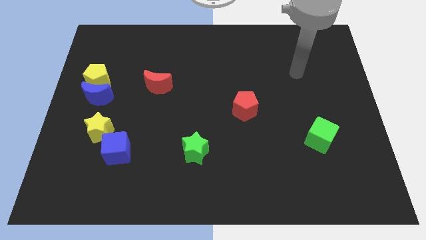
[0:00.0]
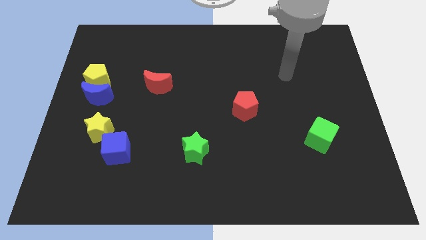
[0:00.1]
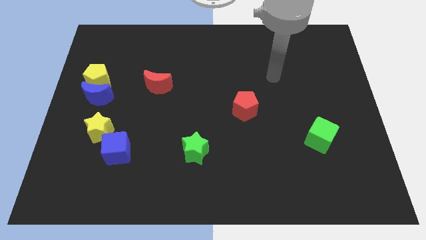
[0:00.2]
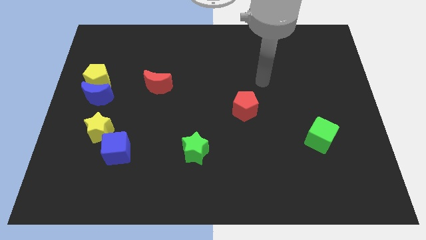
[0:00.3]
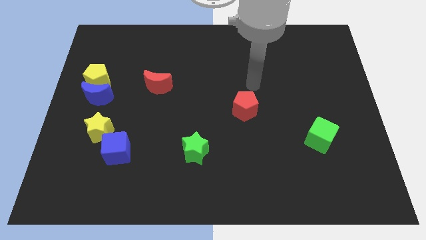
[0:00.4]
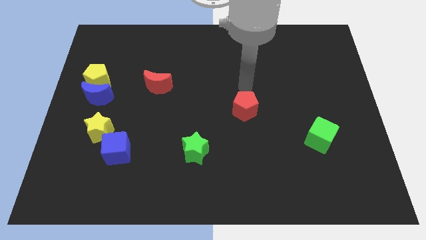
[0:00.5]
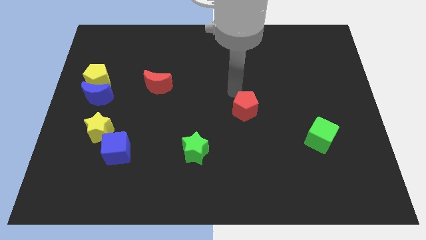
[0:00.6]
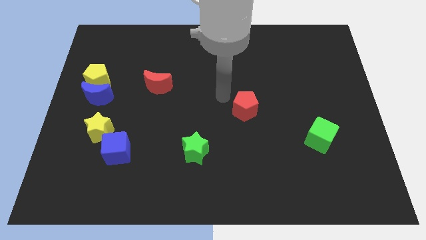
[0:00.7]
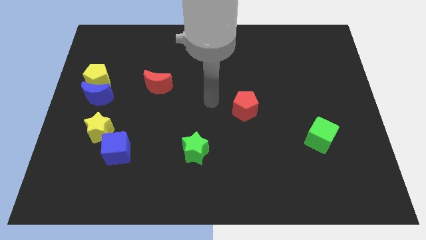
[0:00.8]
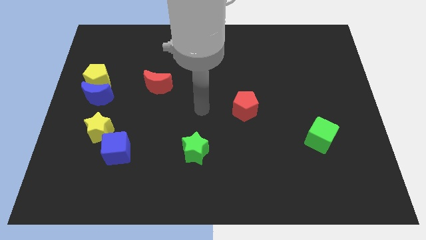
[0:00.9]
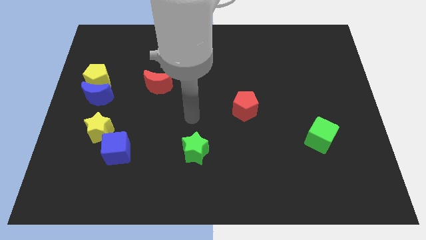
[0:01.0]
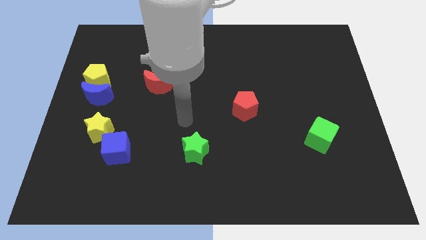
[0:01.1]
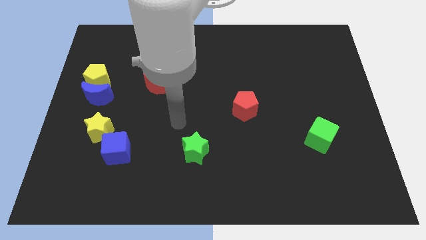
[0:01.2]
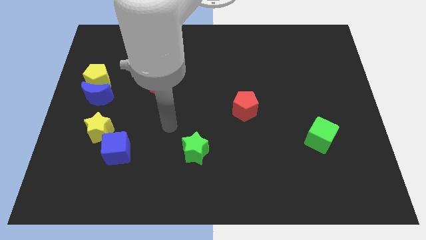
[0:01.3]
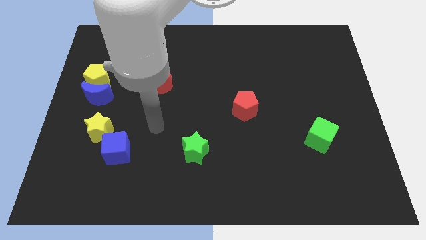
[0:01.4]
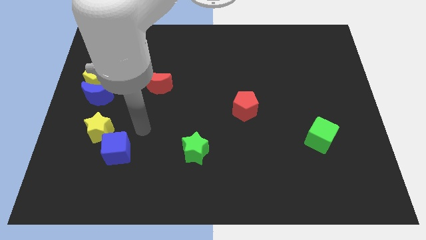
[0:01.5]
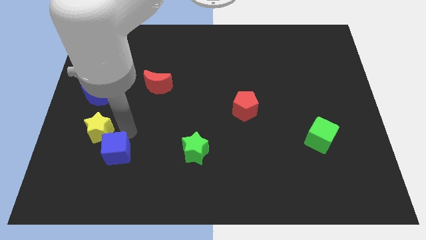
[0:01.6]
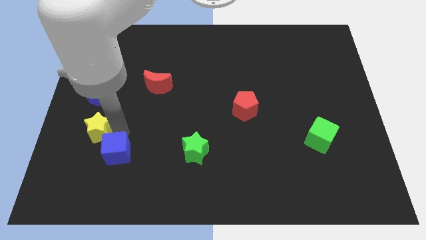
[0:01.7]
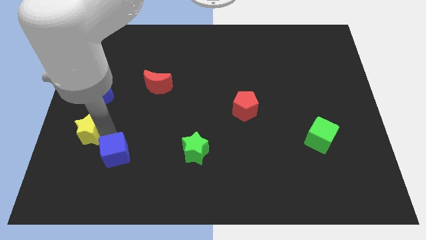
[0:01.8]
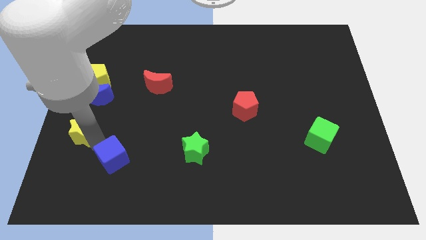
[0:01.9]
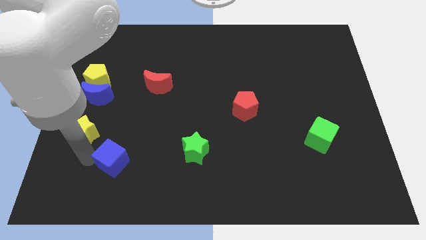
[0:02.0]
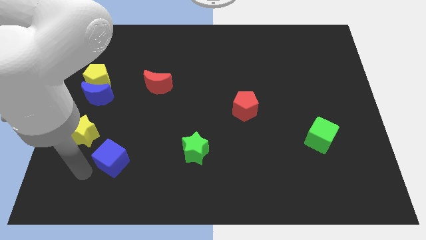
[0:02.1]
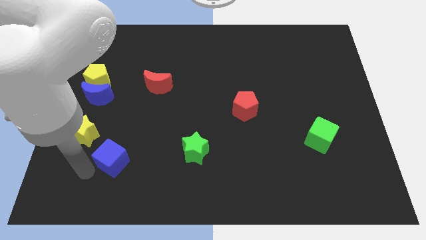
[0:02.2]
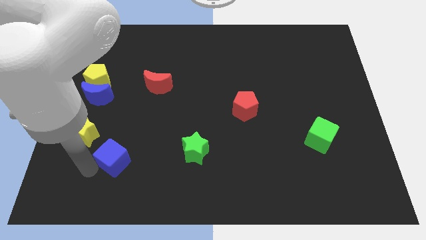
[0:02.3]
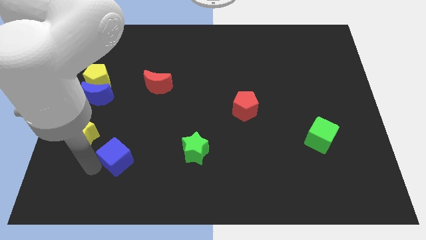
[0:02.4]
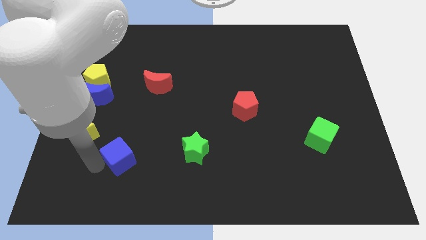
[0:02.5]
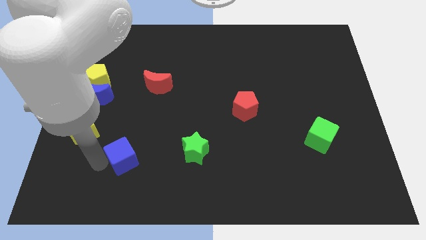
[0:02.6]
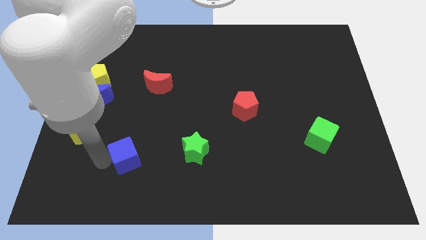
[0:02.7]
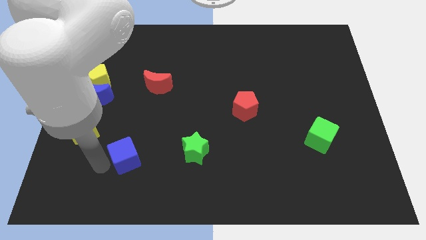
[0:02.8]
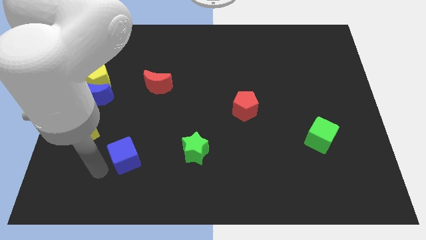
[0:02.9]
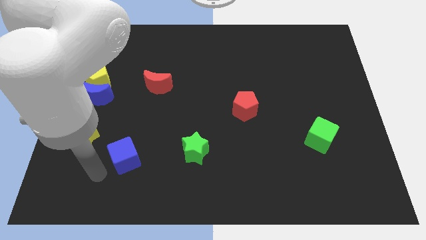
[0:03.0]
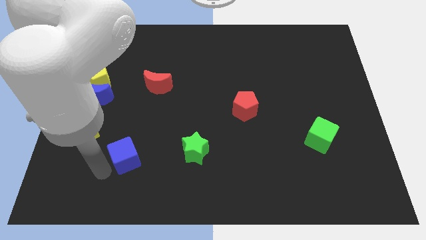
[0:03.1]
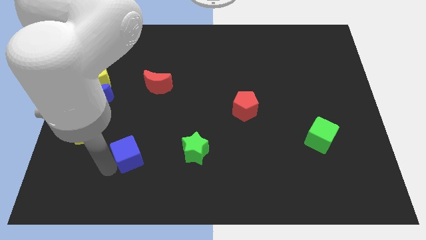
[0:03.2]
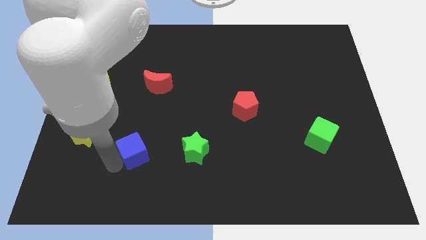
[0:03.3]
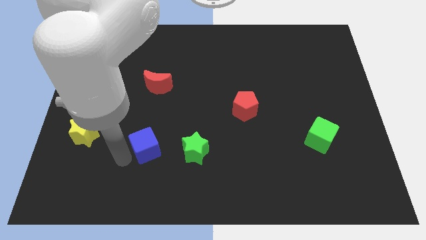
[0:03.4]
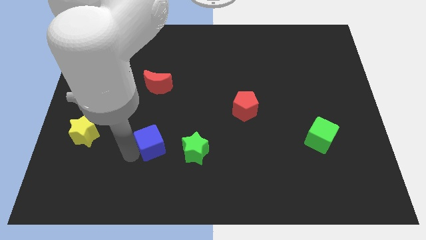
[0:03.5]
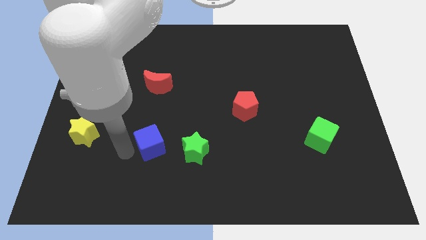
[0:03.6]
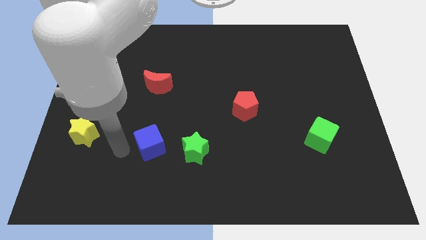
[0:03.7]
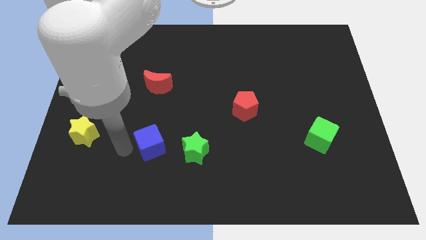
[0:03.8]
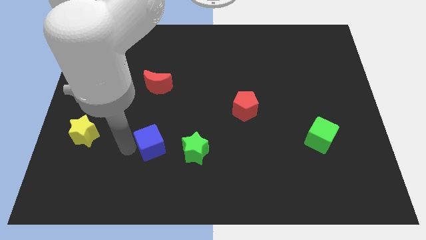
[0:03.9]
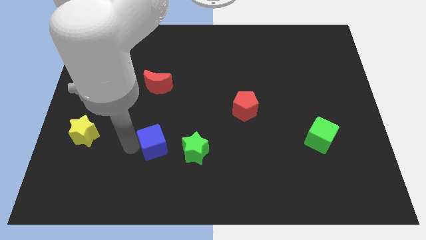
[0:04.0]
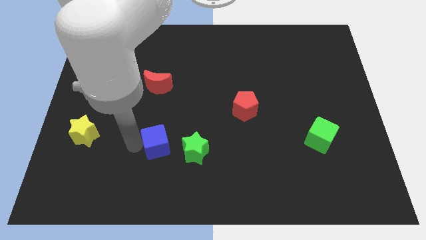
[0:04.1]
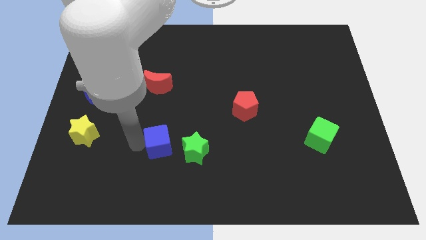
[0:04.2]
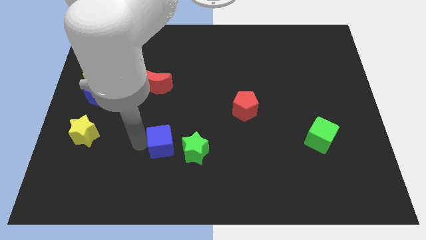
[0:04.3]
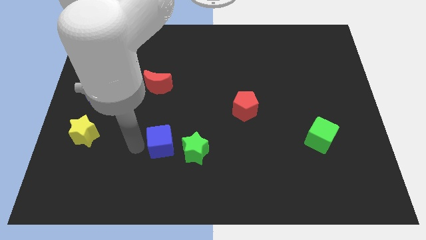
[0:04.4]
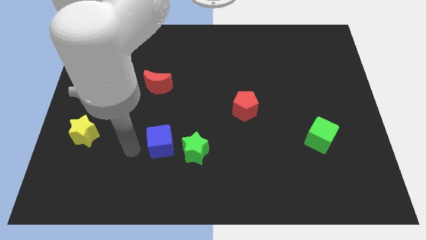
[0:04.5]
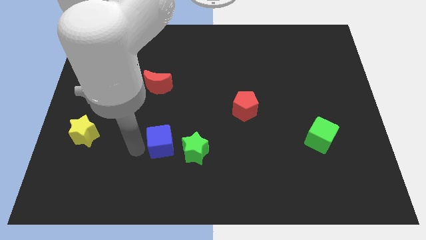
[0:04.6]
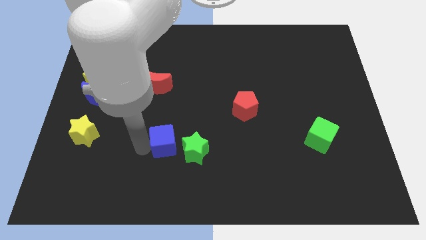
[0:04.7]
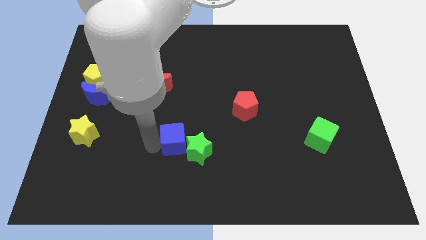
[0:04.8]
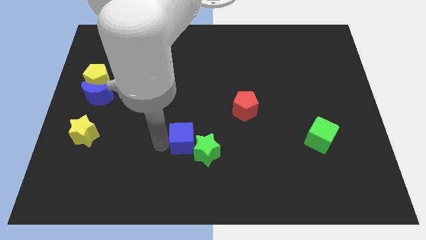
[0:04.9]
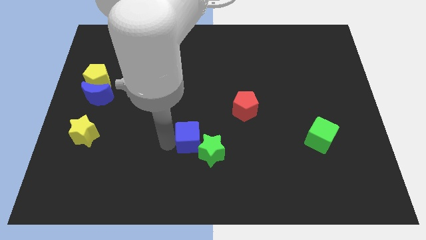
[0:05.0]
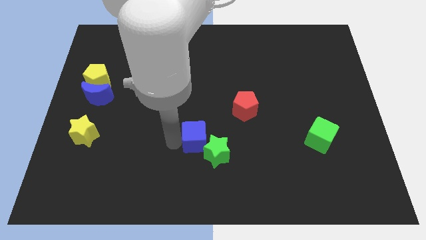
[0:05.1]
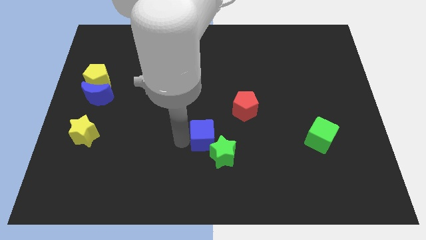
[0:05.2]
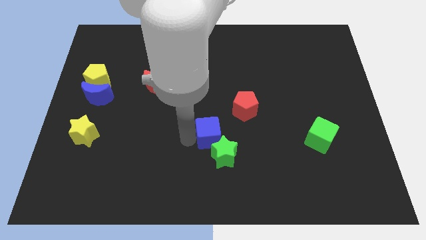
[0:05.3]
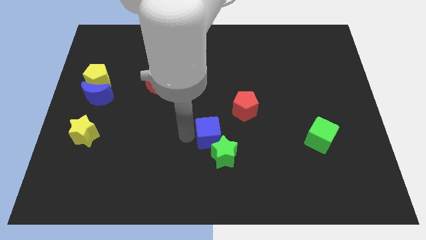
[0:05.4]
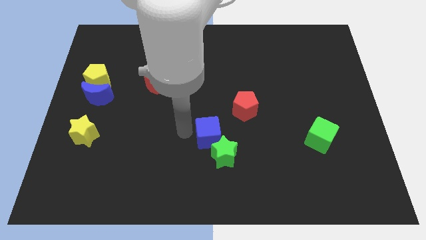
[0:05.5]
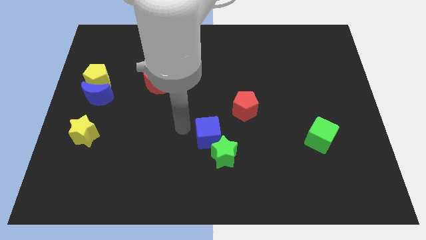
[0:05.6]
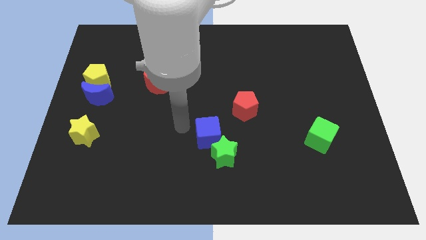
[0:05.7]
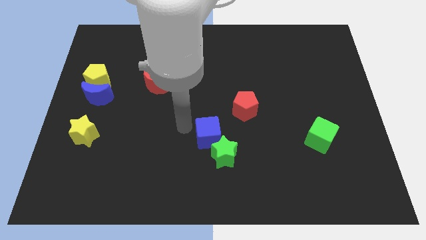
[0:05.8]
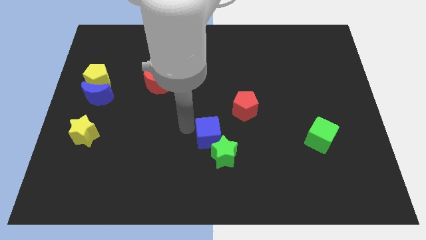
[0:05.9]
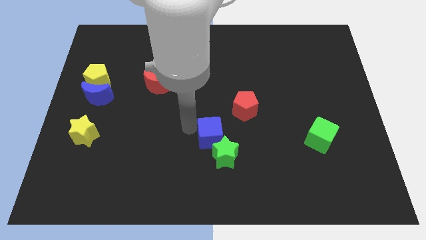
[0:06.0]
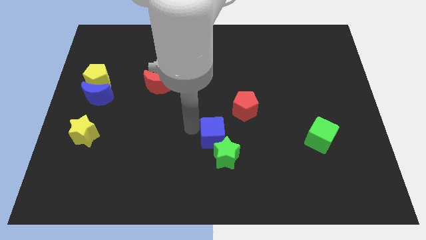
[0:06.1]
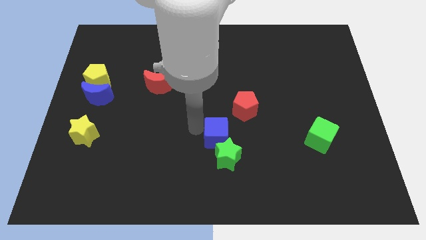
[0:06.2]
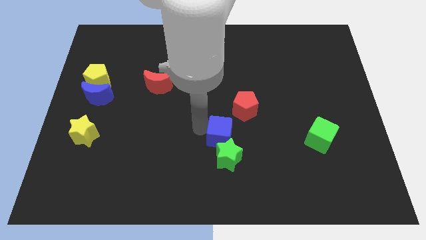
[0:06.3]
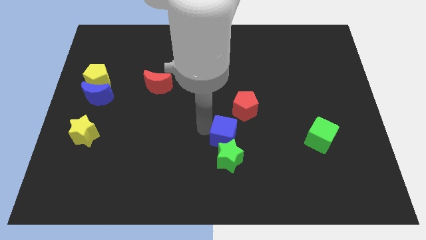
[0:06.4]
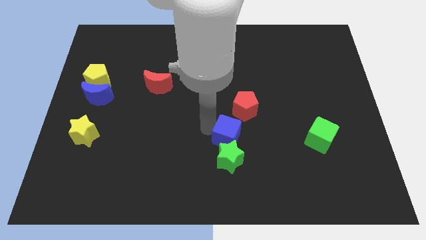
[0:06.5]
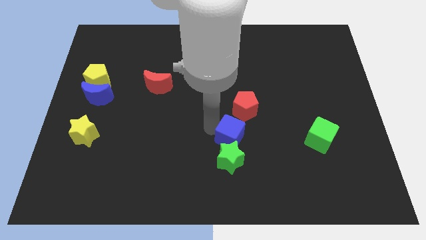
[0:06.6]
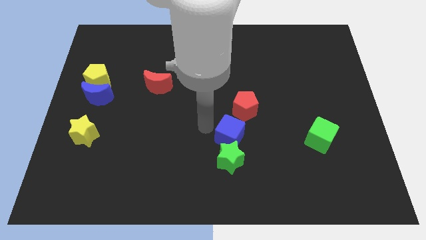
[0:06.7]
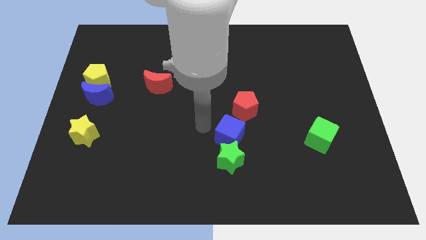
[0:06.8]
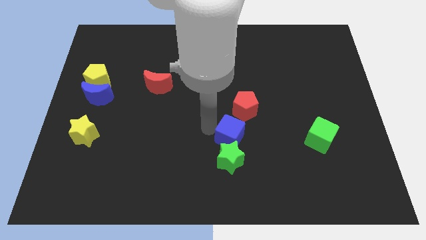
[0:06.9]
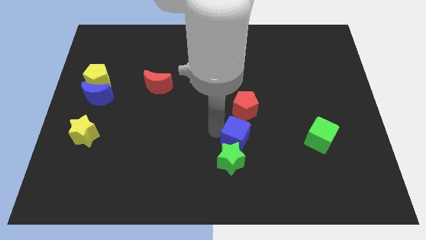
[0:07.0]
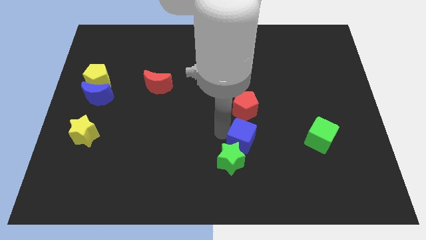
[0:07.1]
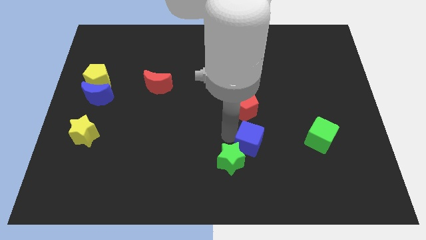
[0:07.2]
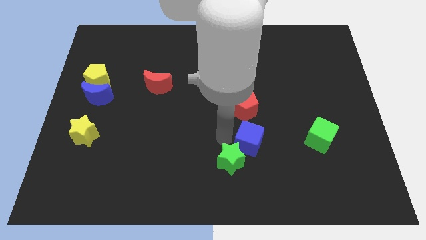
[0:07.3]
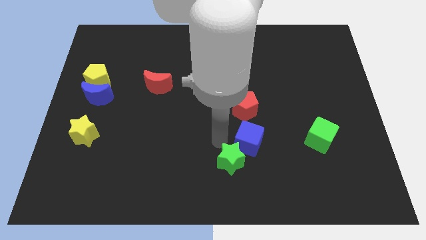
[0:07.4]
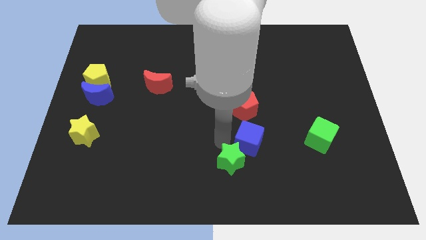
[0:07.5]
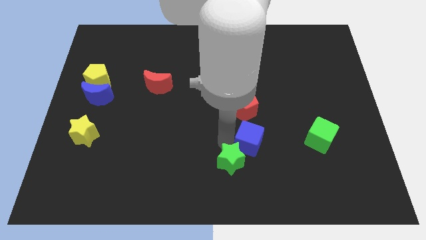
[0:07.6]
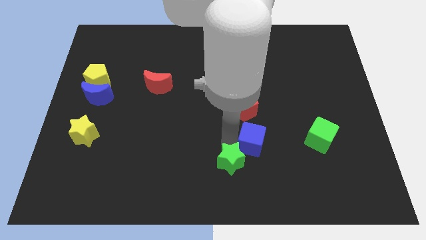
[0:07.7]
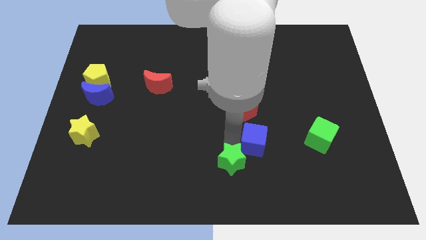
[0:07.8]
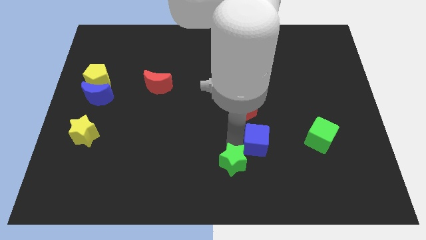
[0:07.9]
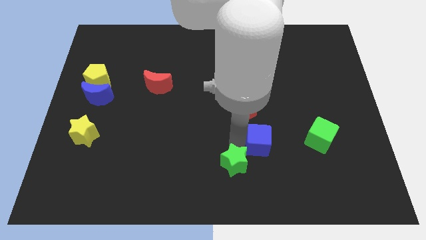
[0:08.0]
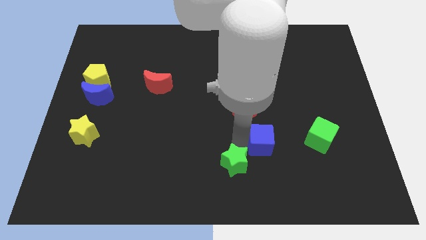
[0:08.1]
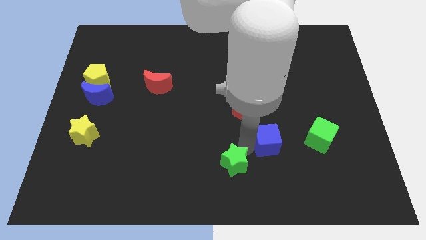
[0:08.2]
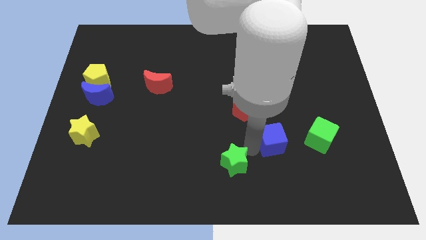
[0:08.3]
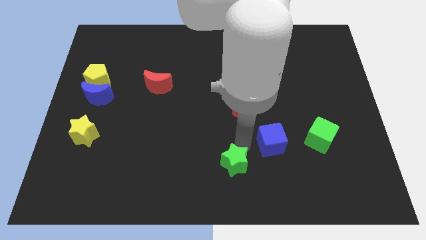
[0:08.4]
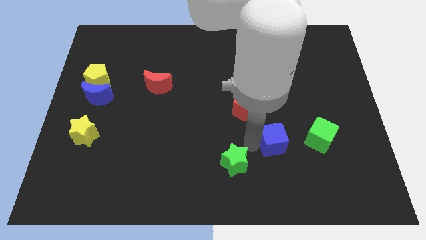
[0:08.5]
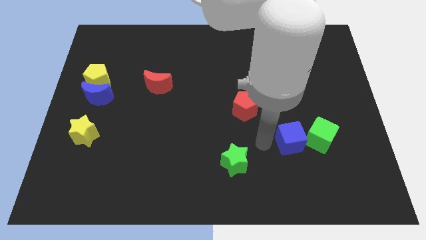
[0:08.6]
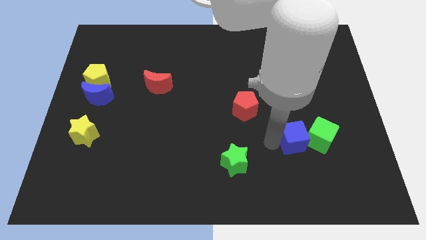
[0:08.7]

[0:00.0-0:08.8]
push the blue cube to the green cube
